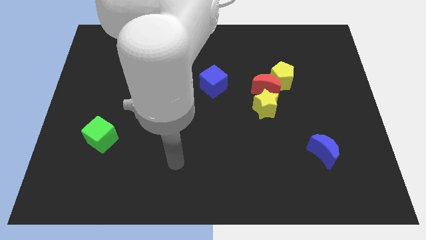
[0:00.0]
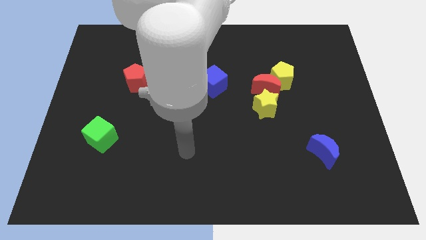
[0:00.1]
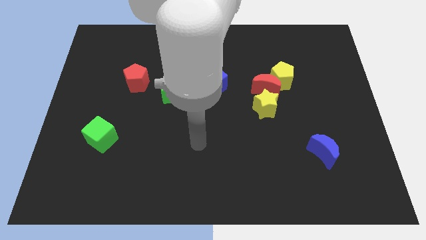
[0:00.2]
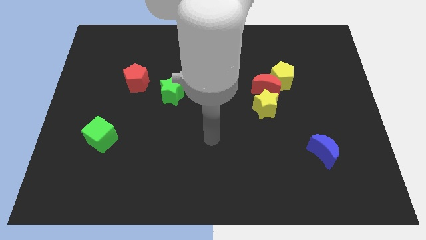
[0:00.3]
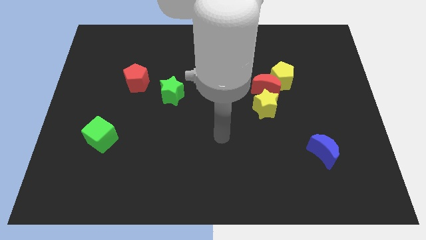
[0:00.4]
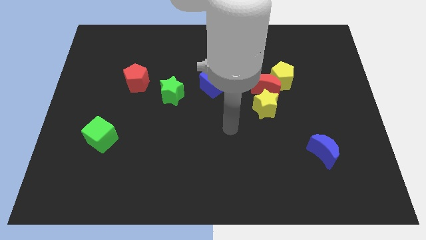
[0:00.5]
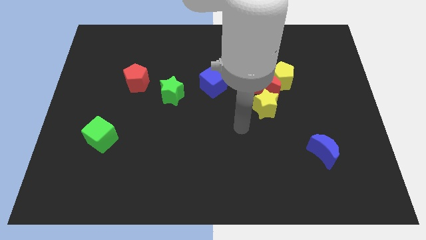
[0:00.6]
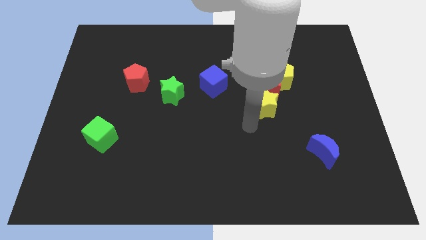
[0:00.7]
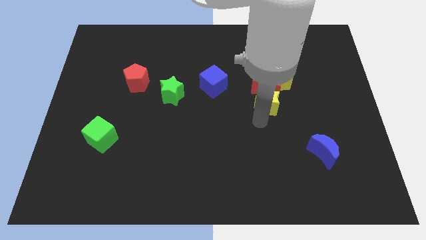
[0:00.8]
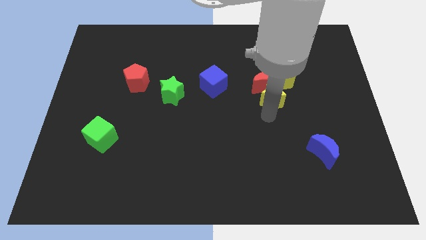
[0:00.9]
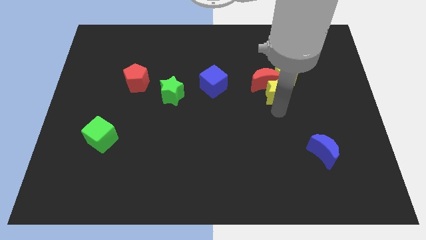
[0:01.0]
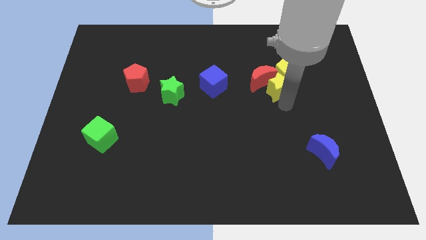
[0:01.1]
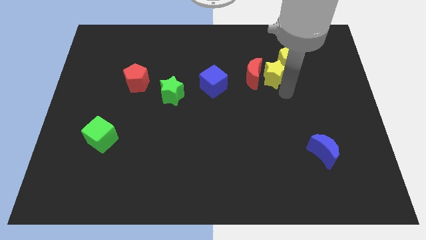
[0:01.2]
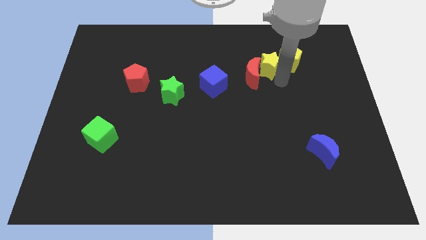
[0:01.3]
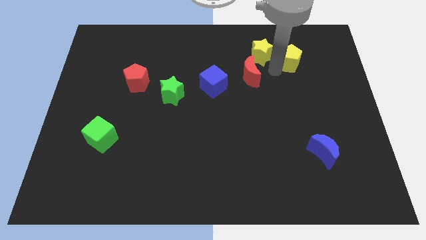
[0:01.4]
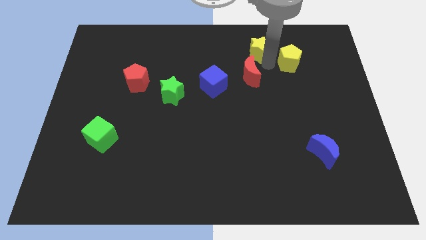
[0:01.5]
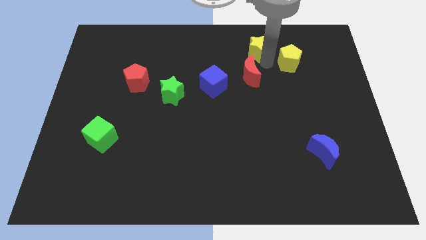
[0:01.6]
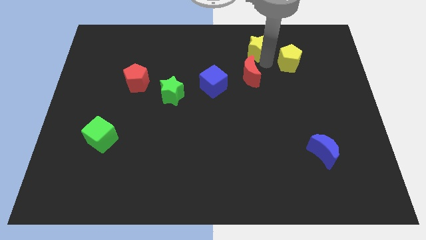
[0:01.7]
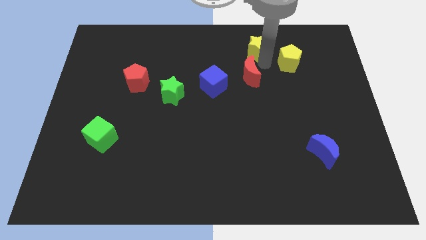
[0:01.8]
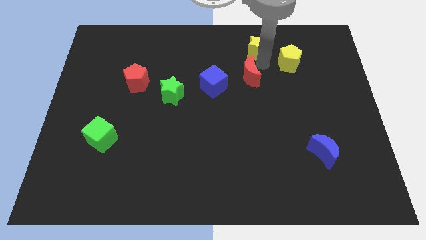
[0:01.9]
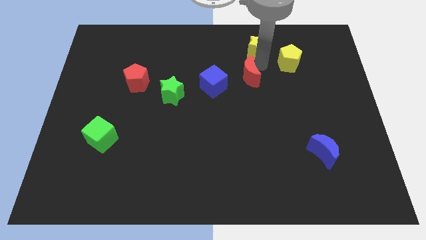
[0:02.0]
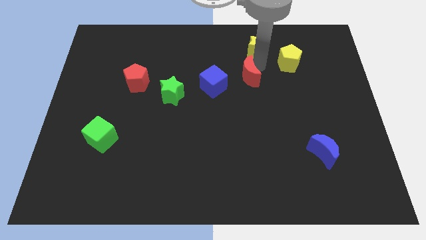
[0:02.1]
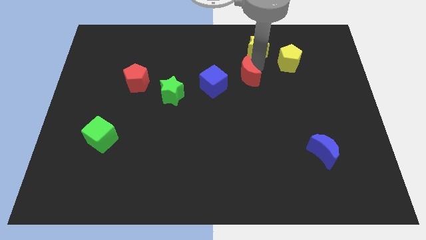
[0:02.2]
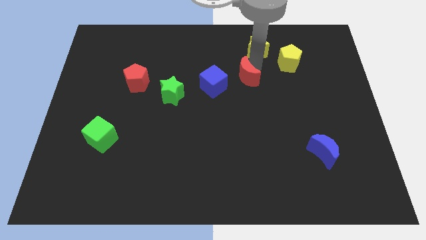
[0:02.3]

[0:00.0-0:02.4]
move the red moon away from the yellow pentagon and yellow star

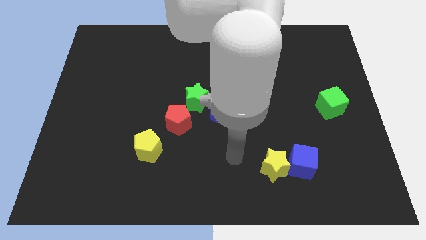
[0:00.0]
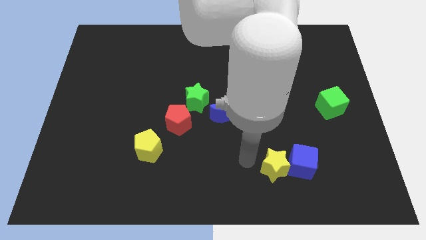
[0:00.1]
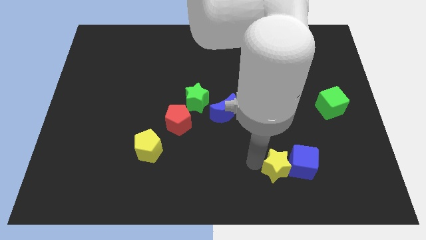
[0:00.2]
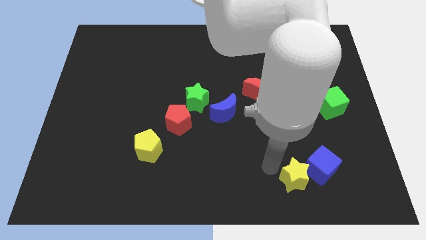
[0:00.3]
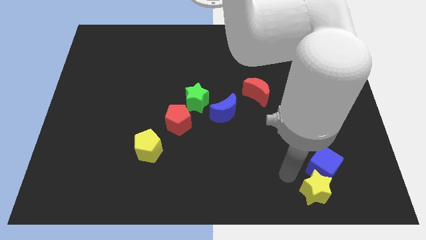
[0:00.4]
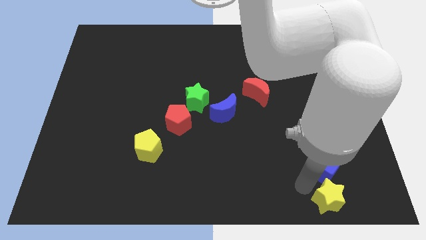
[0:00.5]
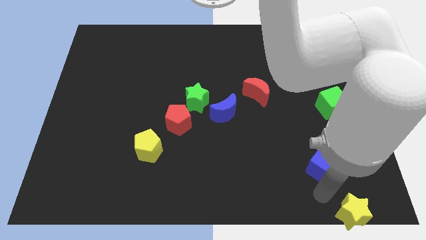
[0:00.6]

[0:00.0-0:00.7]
pull the blue cube apart from the yellow star

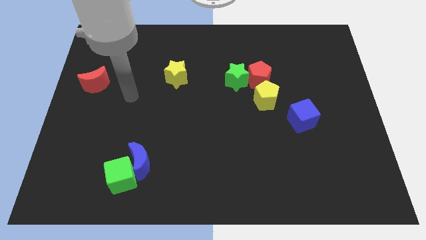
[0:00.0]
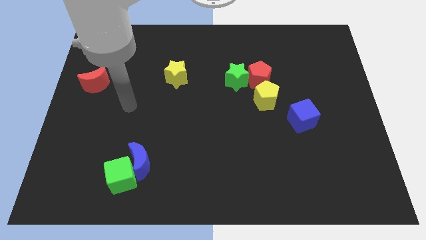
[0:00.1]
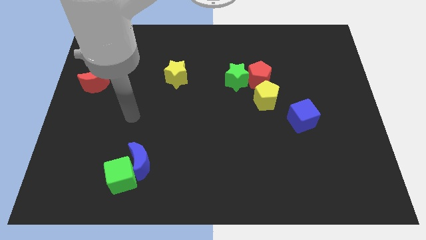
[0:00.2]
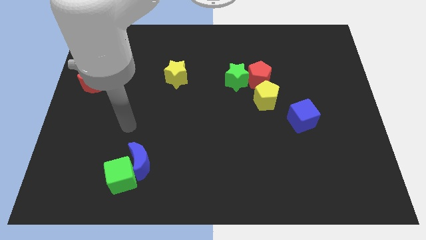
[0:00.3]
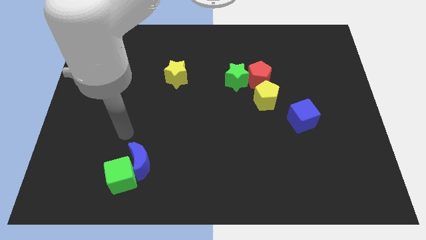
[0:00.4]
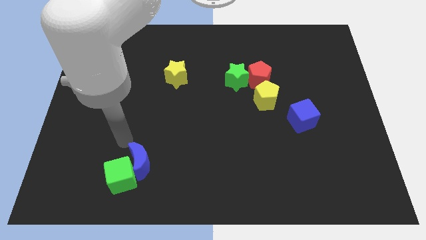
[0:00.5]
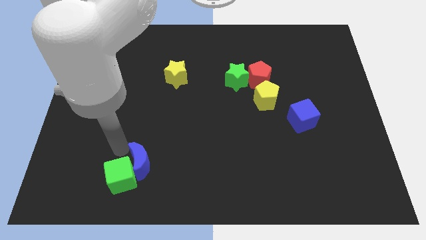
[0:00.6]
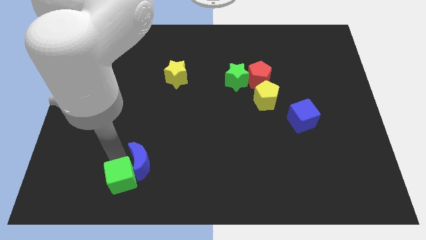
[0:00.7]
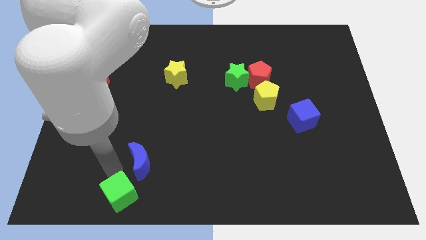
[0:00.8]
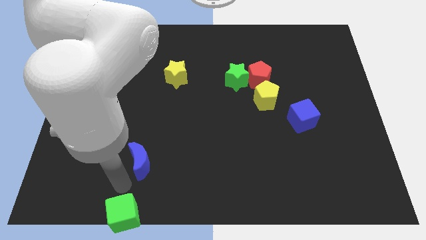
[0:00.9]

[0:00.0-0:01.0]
pull the blue moon apart from the green cube

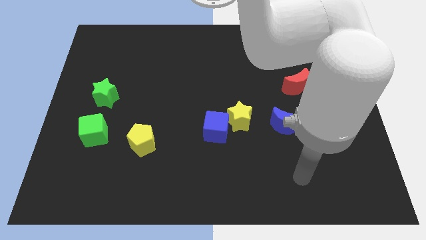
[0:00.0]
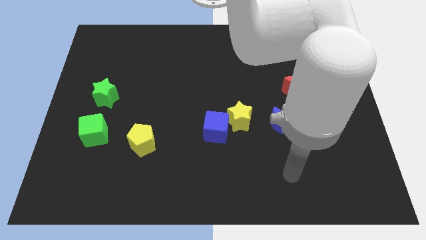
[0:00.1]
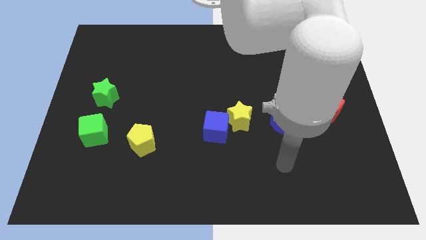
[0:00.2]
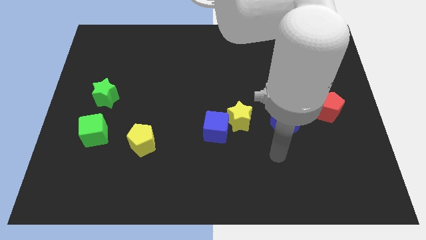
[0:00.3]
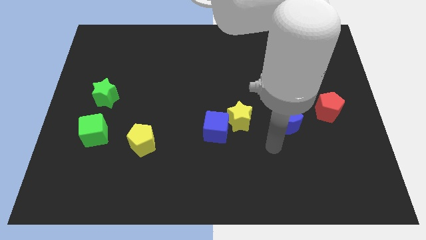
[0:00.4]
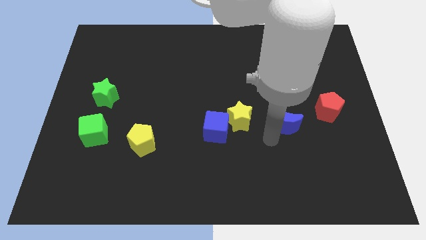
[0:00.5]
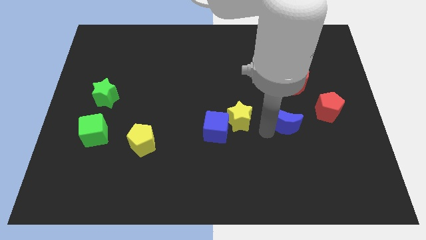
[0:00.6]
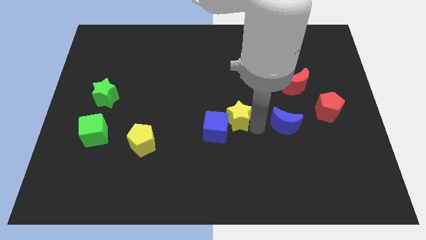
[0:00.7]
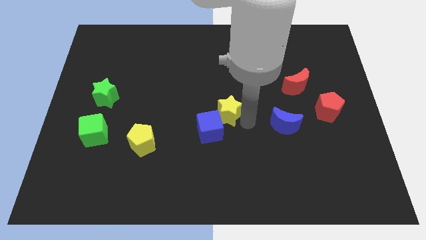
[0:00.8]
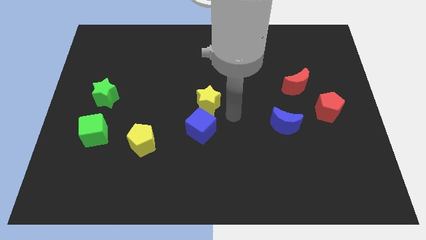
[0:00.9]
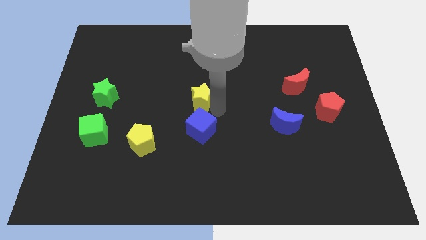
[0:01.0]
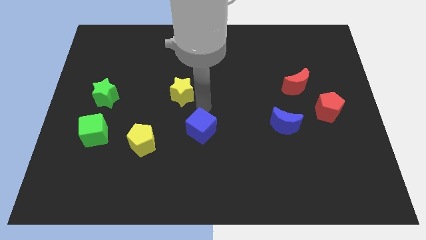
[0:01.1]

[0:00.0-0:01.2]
separate the blue cube from the yellow star

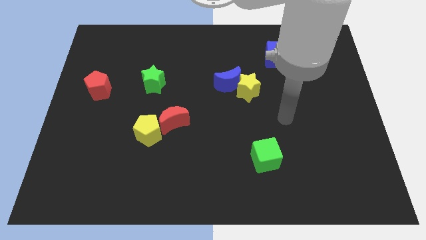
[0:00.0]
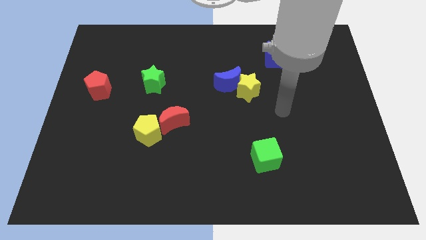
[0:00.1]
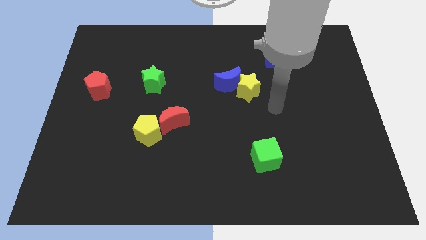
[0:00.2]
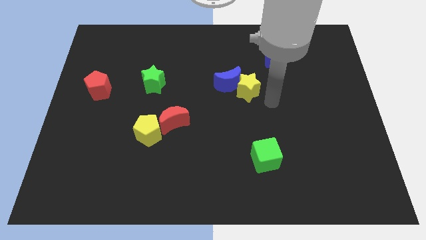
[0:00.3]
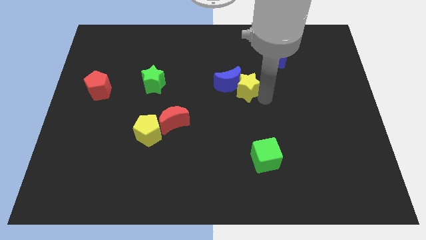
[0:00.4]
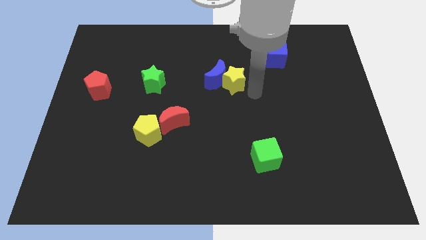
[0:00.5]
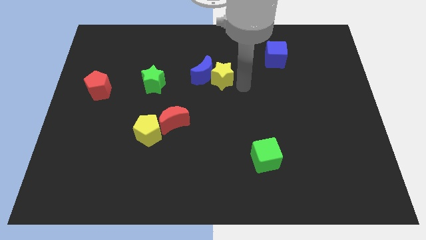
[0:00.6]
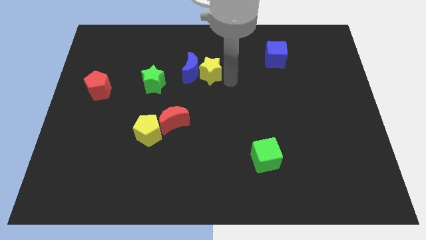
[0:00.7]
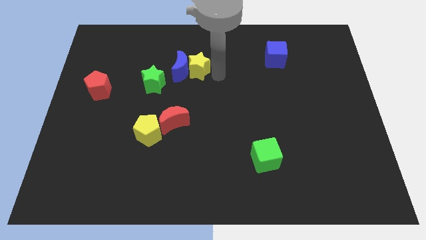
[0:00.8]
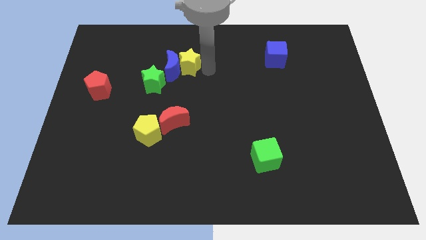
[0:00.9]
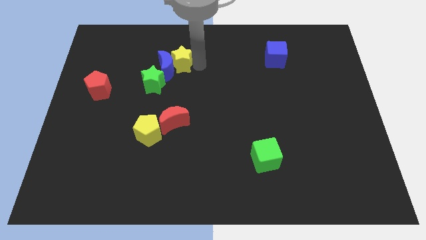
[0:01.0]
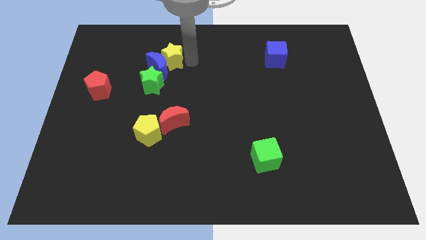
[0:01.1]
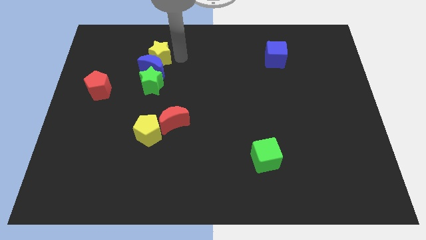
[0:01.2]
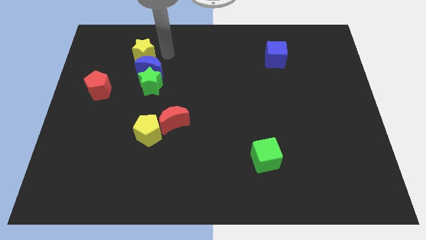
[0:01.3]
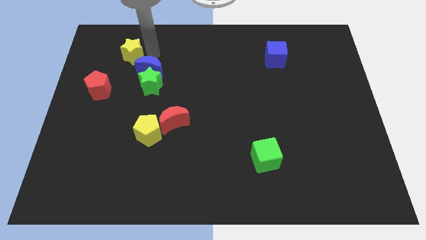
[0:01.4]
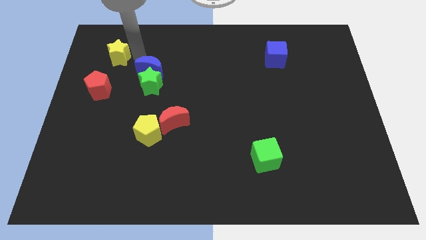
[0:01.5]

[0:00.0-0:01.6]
move the blue moon away from the yellow star

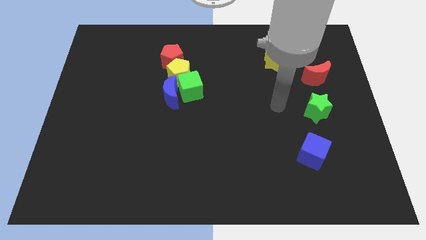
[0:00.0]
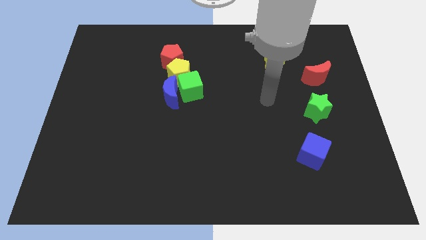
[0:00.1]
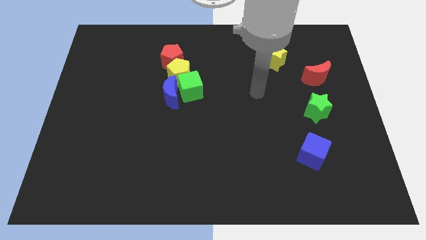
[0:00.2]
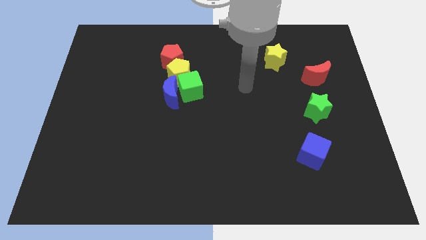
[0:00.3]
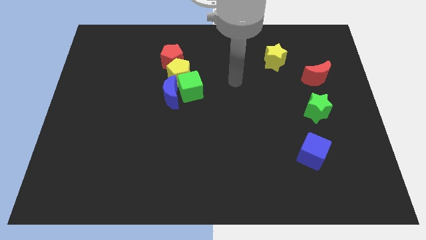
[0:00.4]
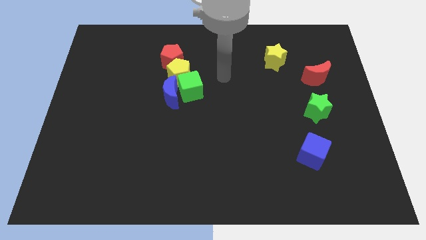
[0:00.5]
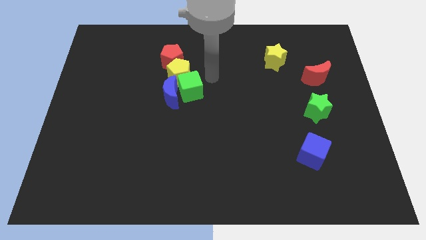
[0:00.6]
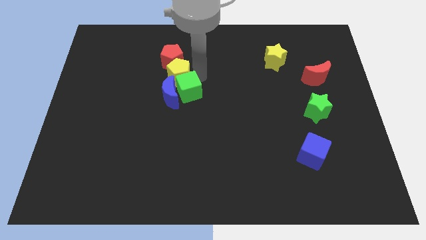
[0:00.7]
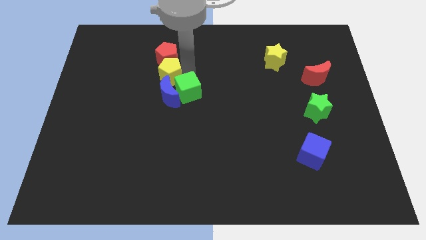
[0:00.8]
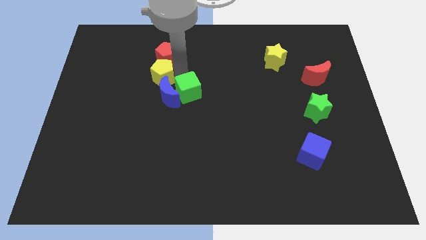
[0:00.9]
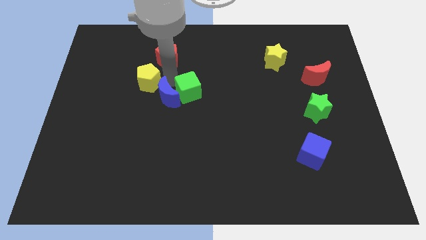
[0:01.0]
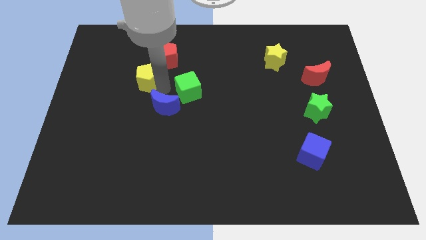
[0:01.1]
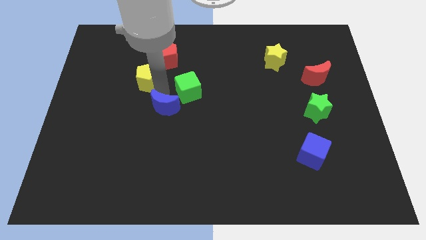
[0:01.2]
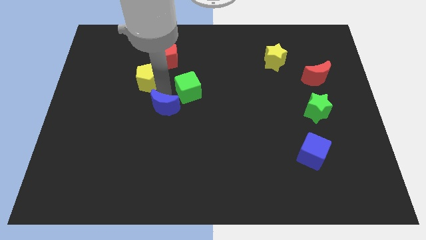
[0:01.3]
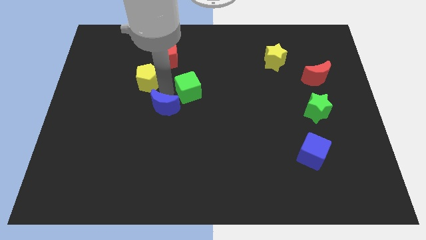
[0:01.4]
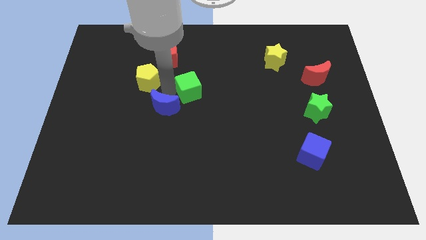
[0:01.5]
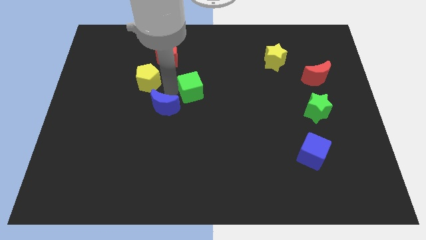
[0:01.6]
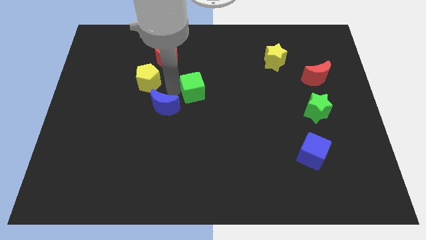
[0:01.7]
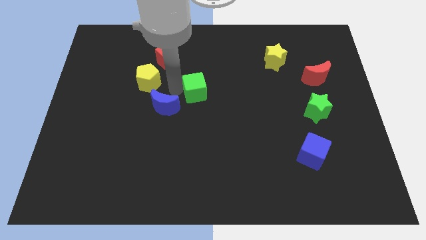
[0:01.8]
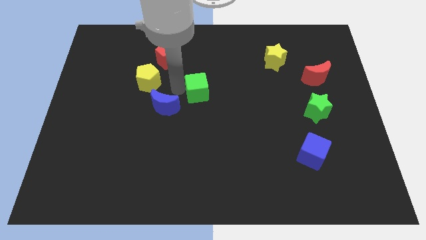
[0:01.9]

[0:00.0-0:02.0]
move the green cube away from the blue moon and yellow pentagon

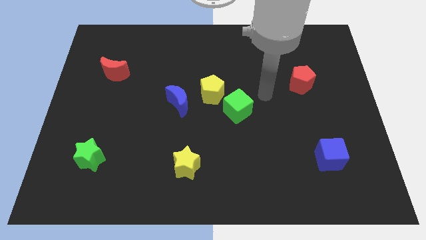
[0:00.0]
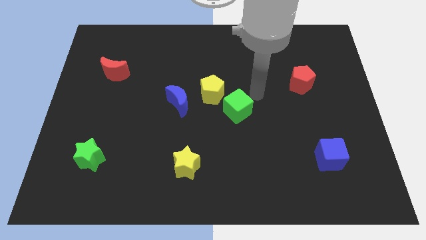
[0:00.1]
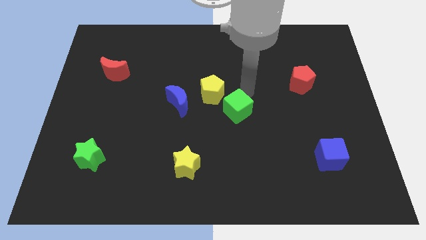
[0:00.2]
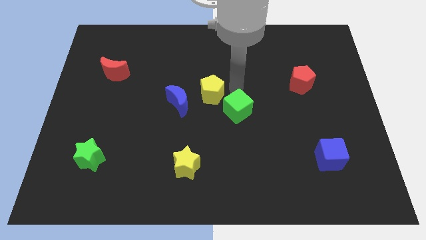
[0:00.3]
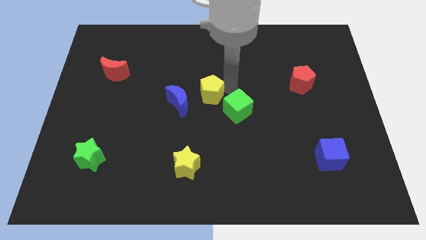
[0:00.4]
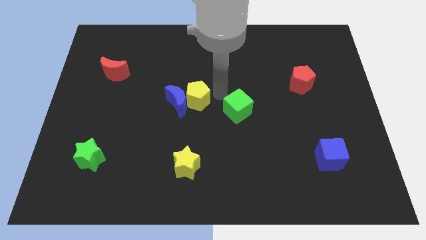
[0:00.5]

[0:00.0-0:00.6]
pull the green cube apart from the yellow pentagon
